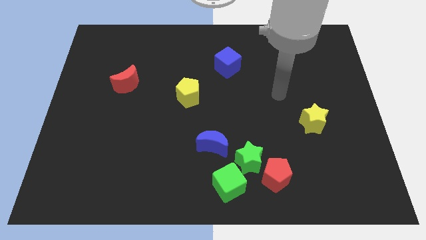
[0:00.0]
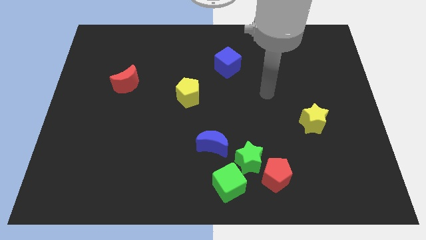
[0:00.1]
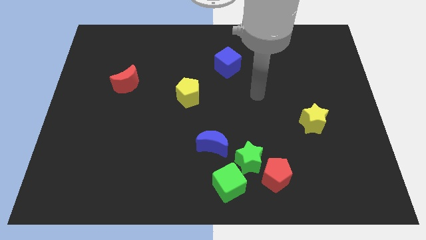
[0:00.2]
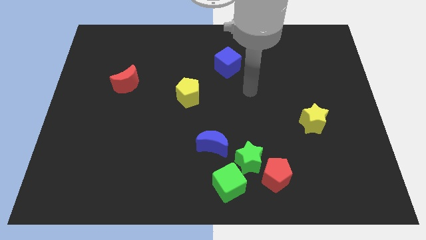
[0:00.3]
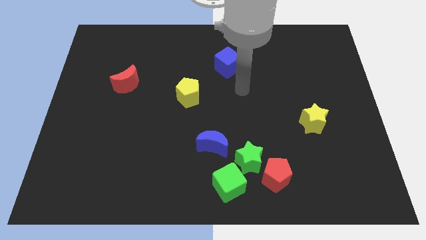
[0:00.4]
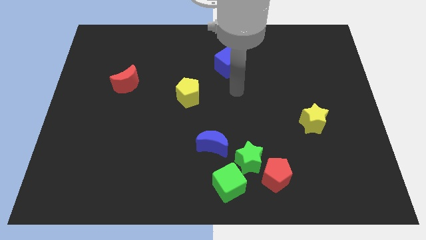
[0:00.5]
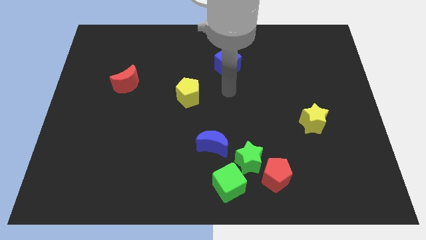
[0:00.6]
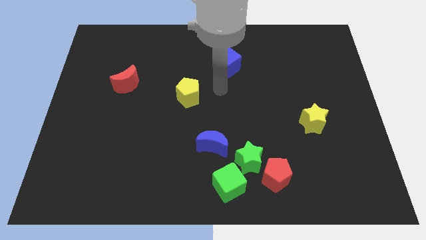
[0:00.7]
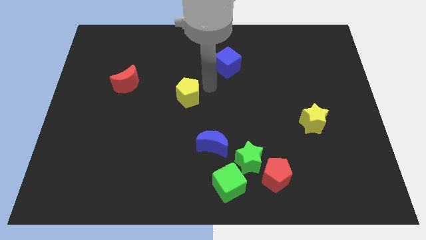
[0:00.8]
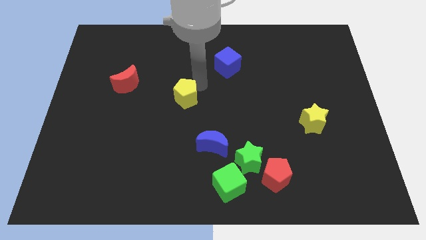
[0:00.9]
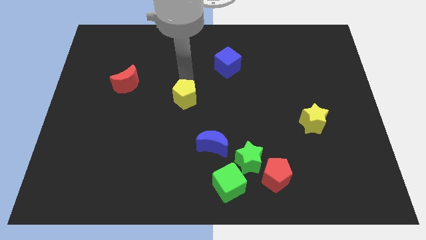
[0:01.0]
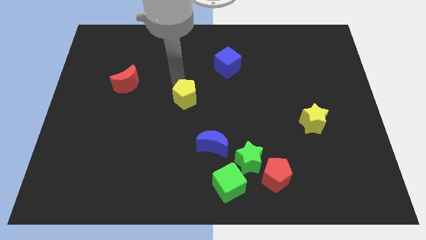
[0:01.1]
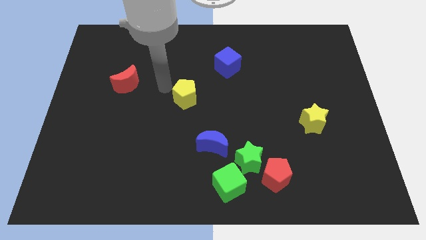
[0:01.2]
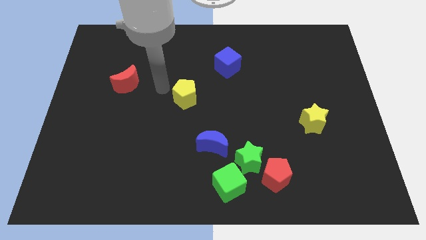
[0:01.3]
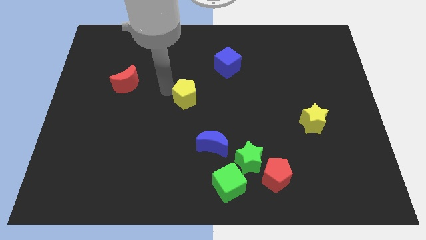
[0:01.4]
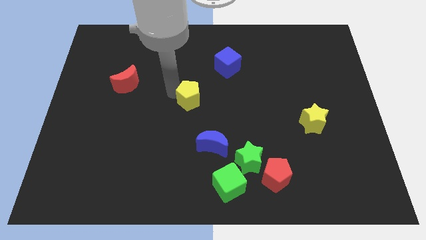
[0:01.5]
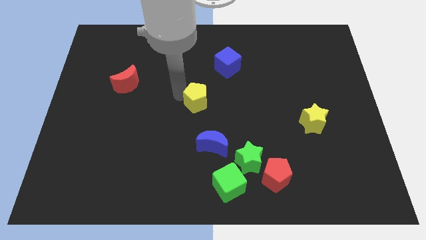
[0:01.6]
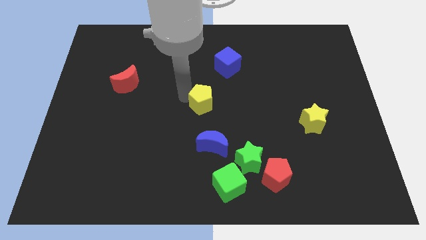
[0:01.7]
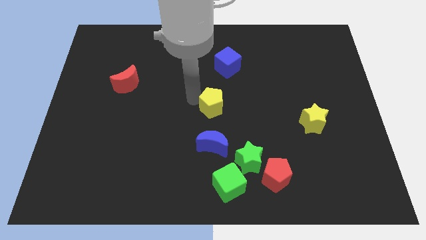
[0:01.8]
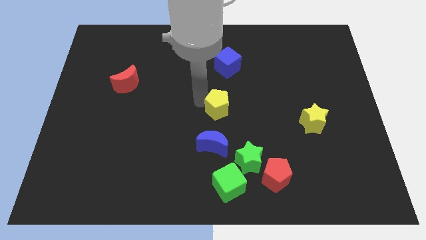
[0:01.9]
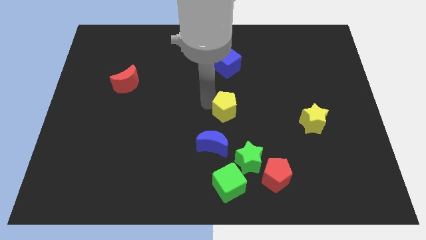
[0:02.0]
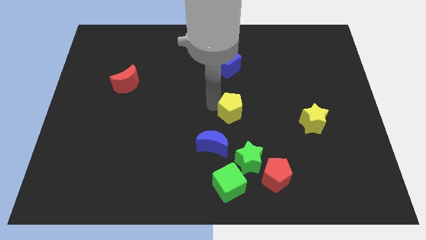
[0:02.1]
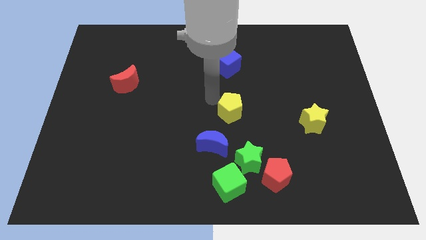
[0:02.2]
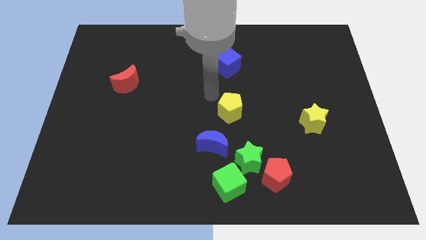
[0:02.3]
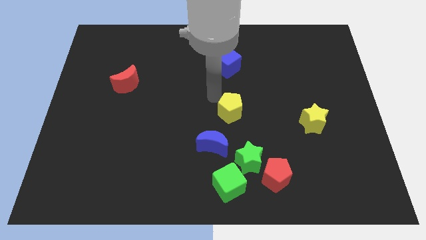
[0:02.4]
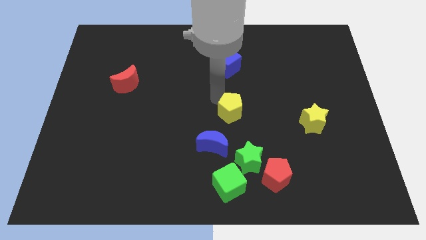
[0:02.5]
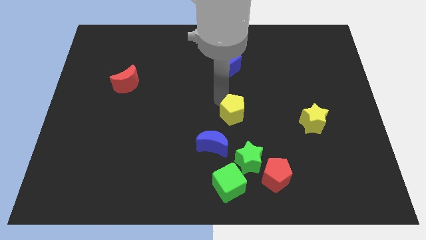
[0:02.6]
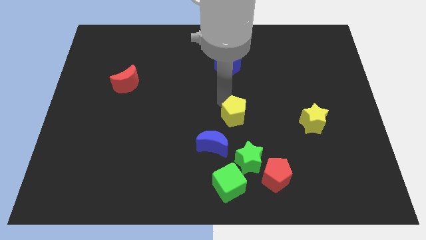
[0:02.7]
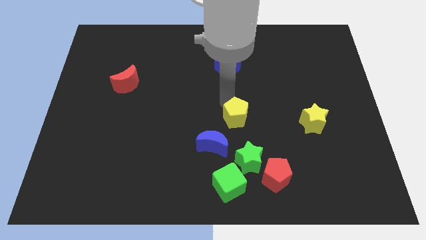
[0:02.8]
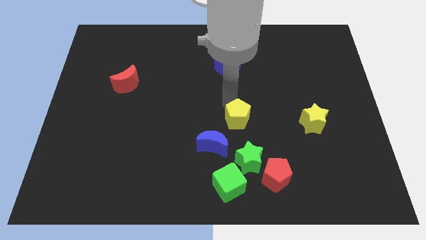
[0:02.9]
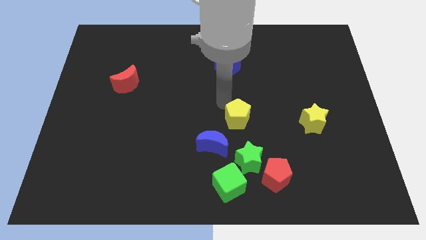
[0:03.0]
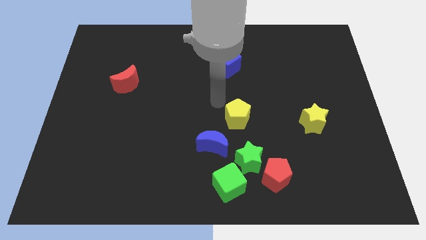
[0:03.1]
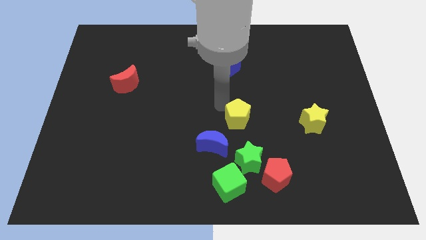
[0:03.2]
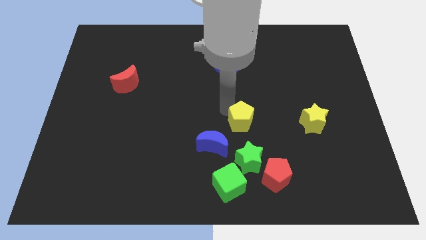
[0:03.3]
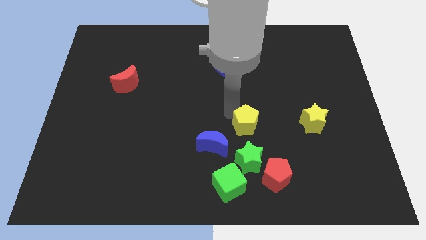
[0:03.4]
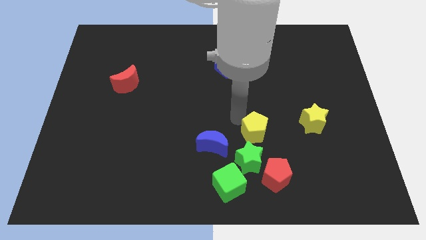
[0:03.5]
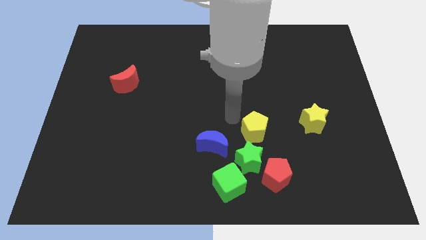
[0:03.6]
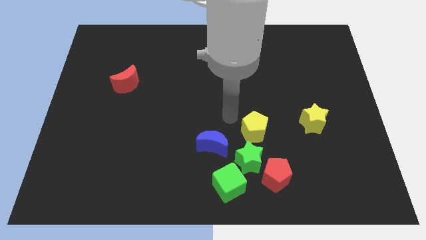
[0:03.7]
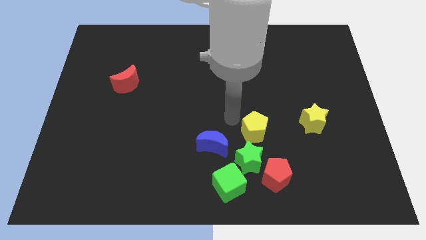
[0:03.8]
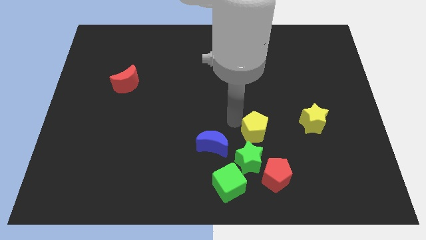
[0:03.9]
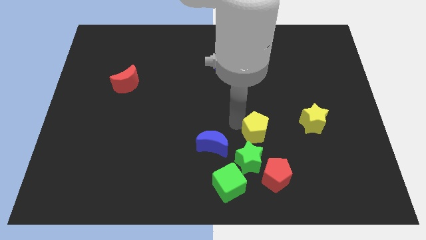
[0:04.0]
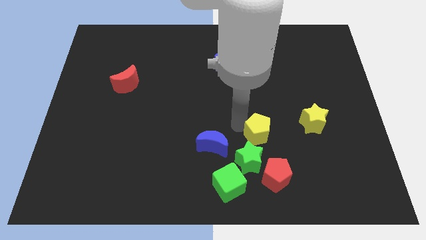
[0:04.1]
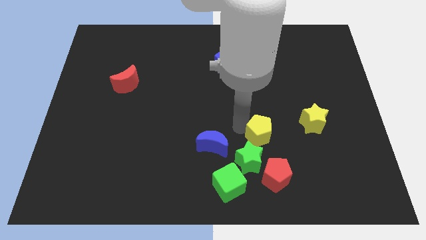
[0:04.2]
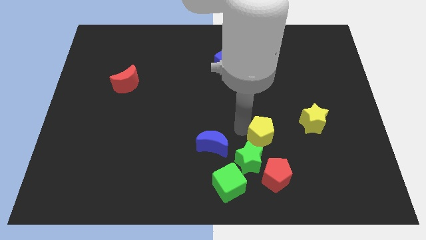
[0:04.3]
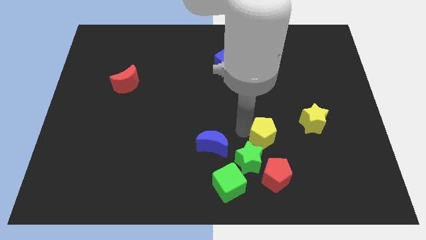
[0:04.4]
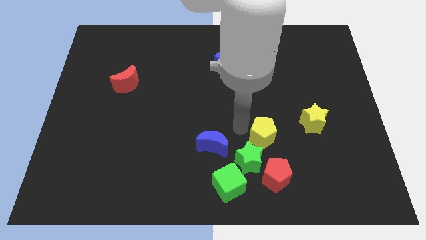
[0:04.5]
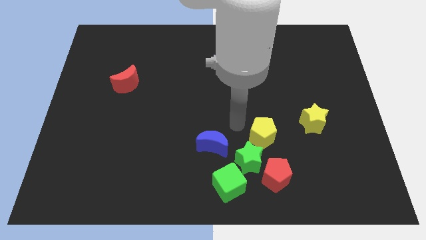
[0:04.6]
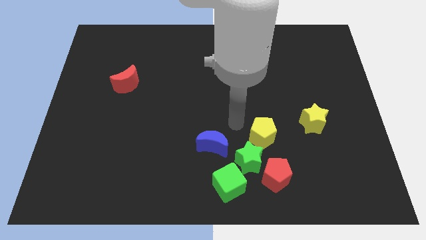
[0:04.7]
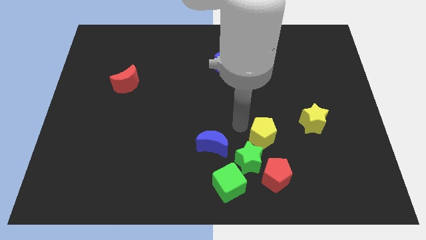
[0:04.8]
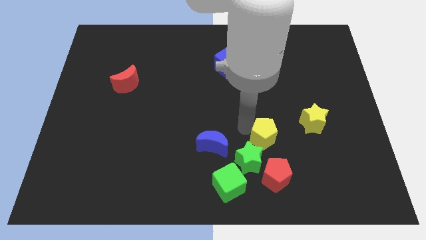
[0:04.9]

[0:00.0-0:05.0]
push the yellow pentagon down and right

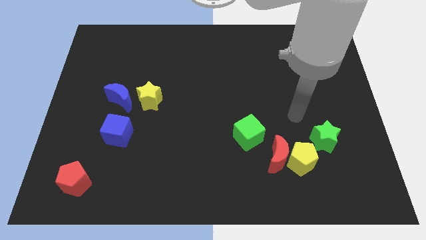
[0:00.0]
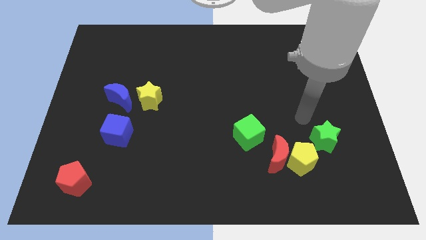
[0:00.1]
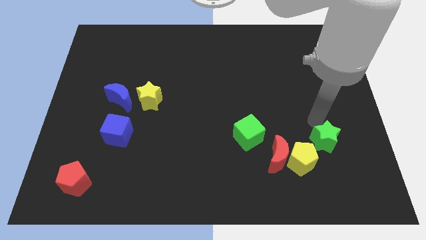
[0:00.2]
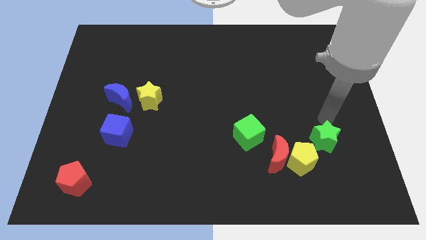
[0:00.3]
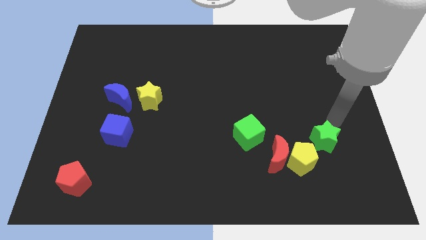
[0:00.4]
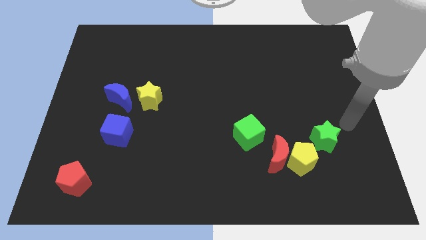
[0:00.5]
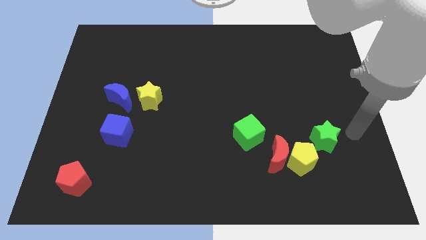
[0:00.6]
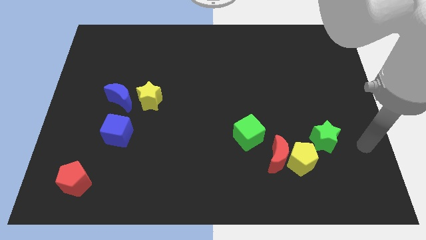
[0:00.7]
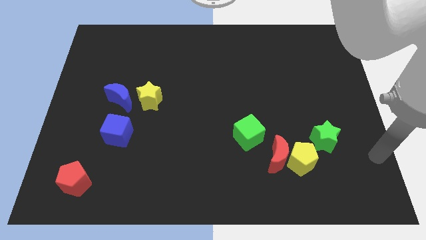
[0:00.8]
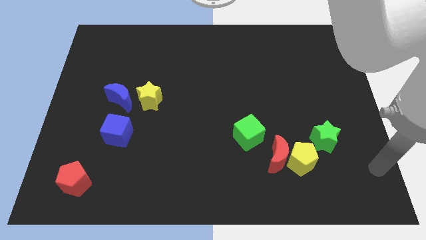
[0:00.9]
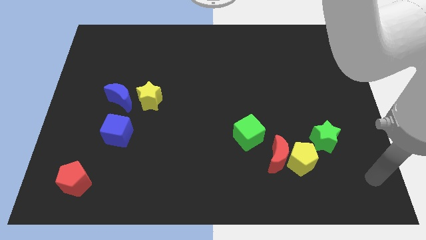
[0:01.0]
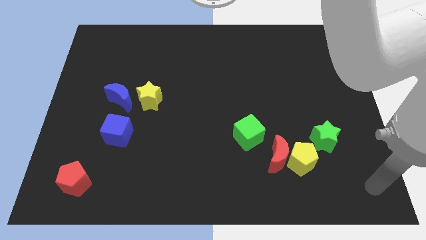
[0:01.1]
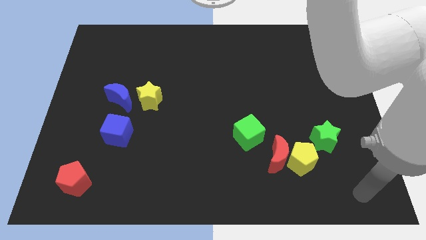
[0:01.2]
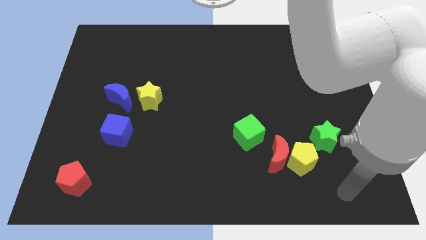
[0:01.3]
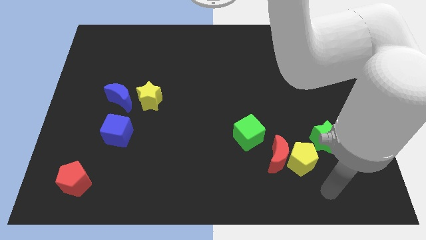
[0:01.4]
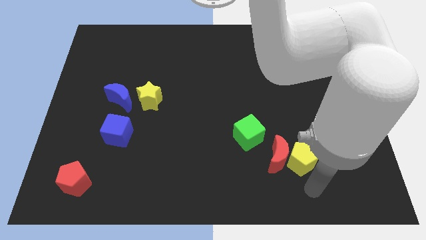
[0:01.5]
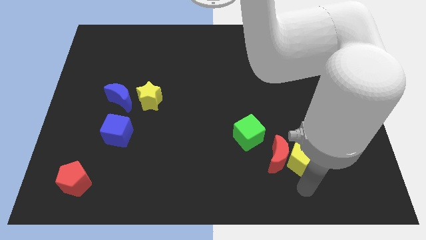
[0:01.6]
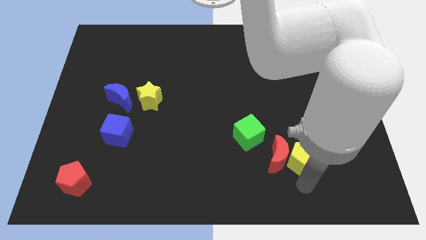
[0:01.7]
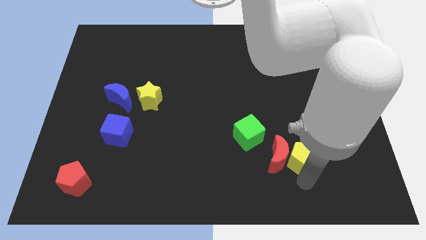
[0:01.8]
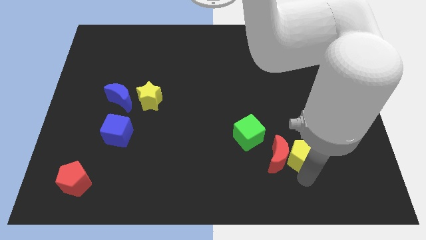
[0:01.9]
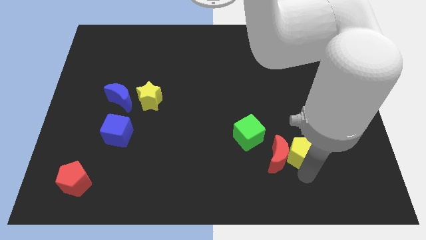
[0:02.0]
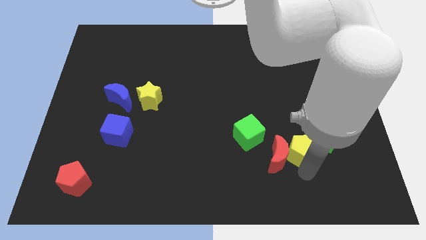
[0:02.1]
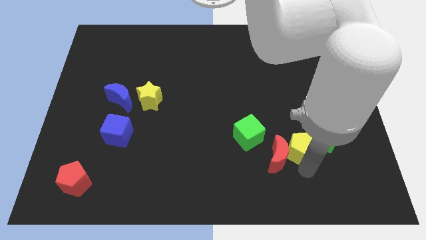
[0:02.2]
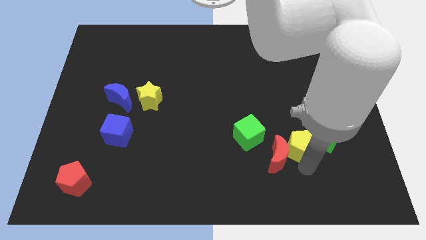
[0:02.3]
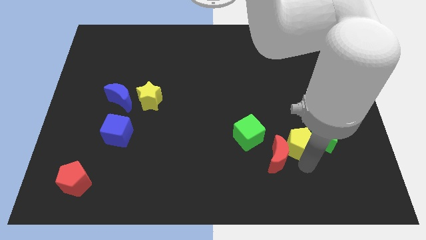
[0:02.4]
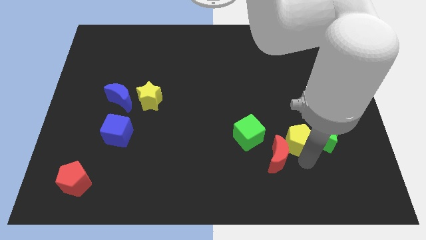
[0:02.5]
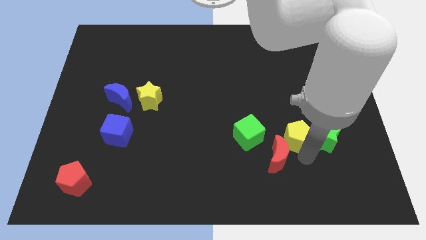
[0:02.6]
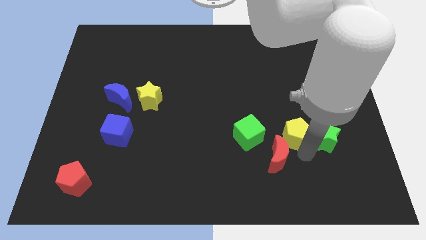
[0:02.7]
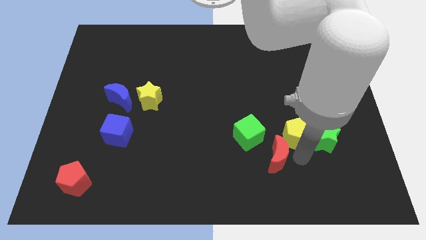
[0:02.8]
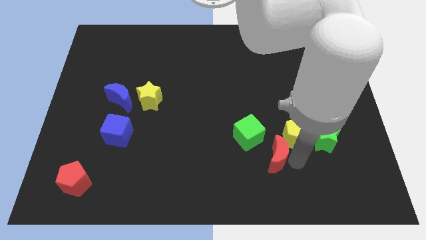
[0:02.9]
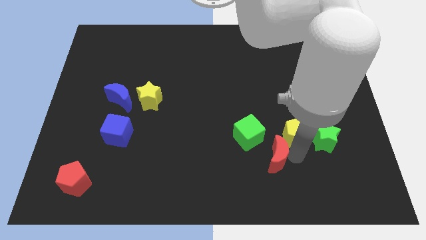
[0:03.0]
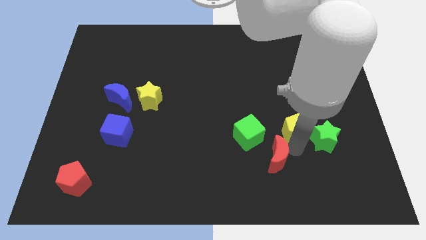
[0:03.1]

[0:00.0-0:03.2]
slide the yellow pentagon a little up
